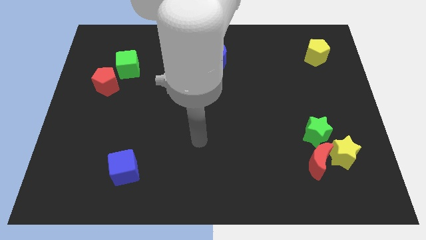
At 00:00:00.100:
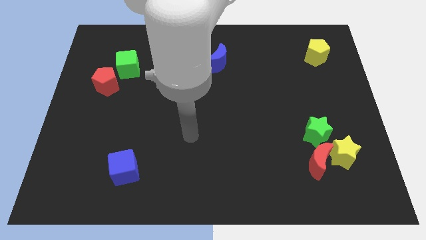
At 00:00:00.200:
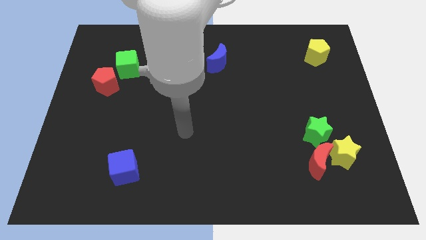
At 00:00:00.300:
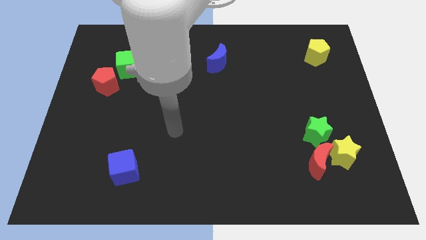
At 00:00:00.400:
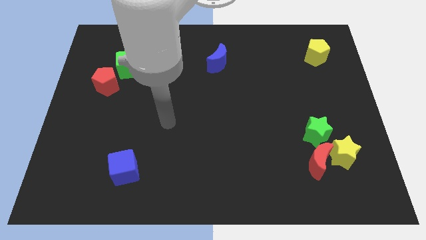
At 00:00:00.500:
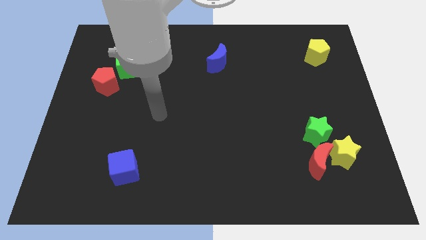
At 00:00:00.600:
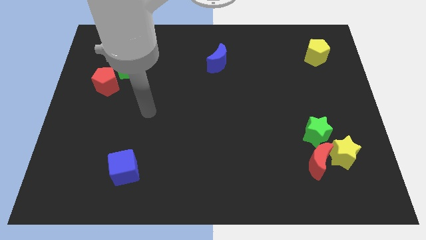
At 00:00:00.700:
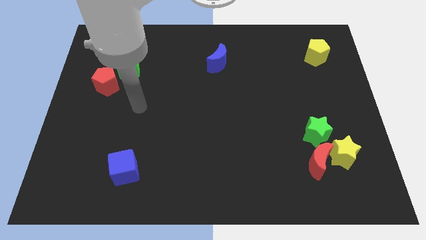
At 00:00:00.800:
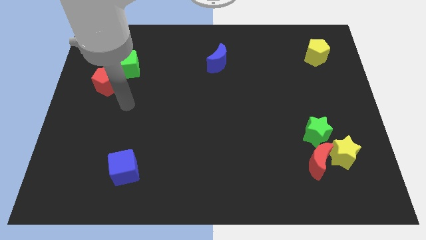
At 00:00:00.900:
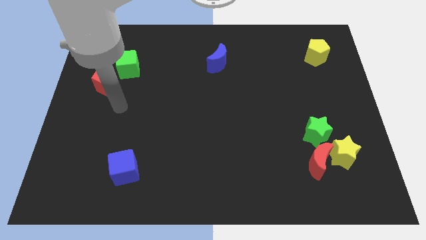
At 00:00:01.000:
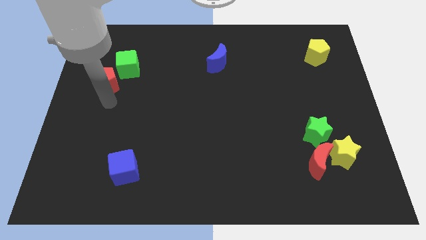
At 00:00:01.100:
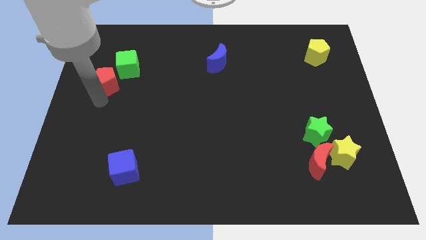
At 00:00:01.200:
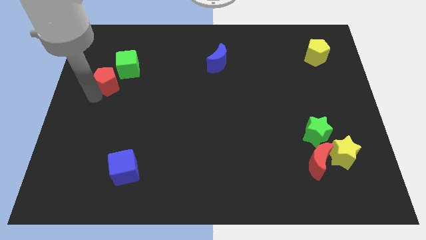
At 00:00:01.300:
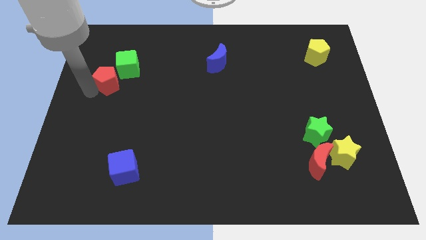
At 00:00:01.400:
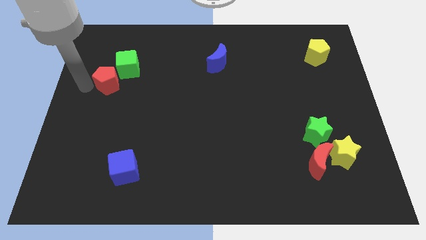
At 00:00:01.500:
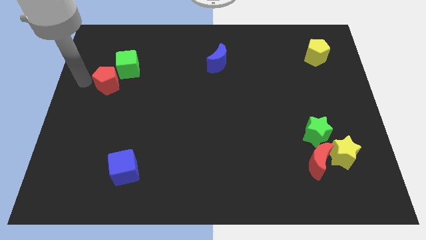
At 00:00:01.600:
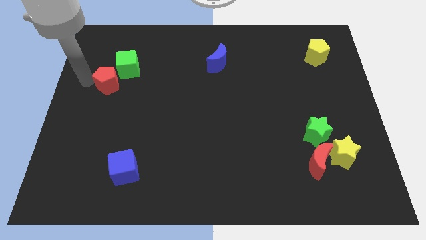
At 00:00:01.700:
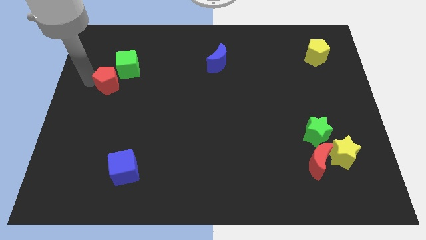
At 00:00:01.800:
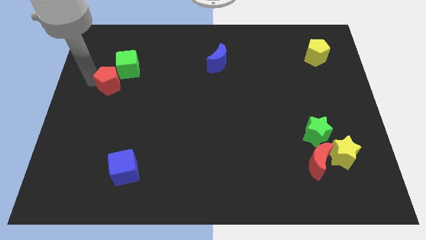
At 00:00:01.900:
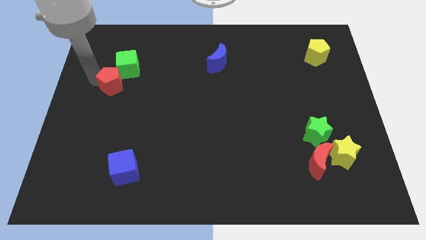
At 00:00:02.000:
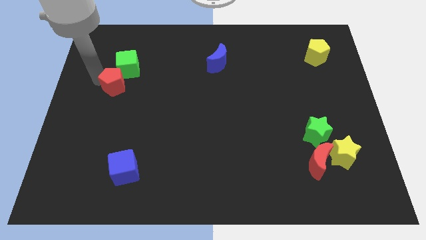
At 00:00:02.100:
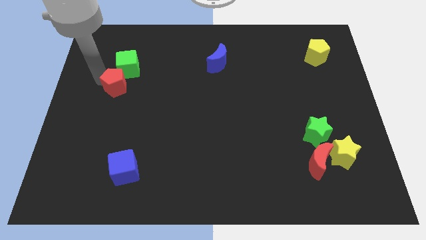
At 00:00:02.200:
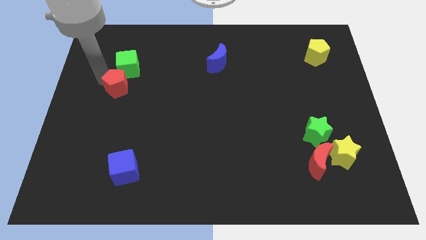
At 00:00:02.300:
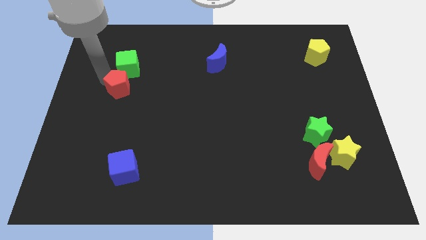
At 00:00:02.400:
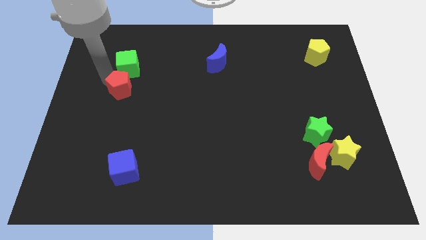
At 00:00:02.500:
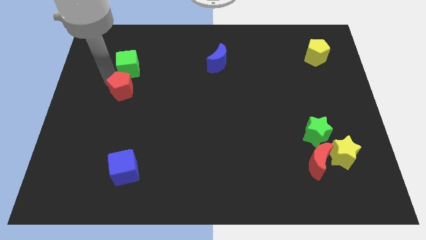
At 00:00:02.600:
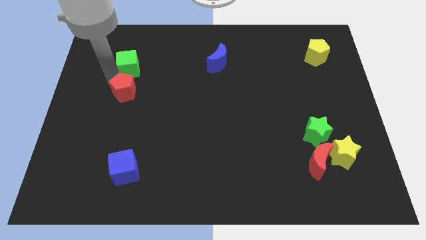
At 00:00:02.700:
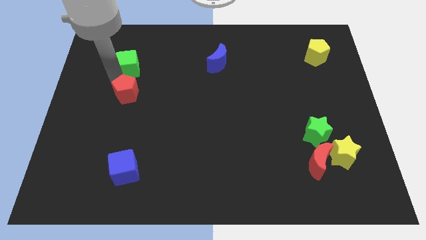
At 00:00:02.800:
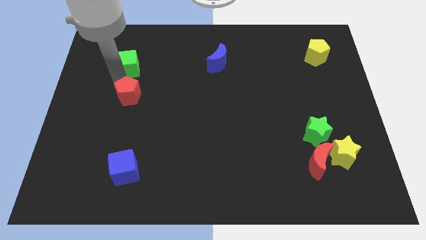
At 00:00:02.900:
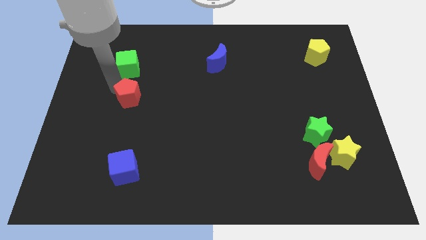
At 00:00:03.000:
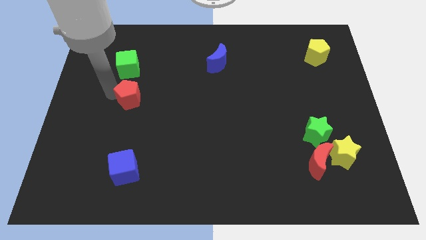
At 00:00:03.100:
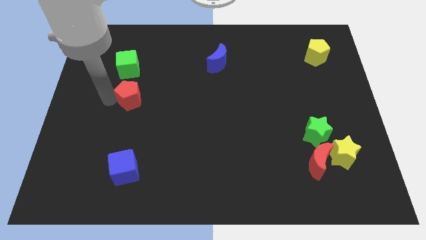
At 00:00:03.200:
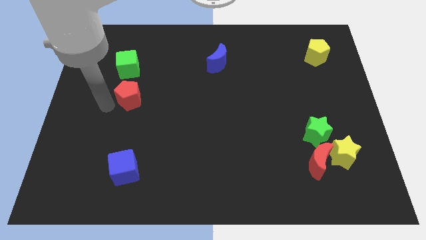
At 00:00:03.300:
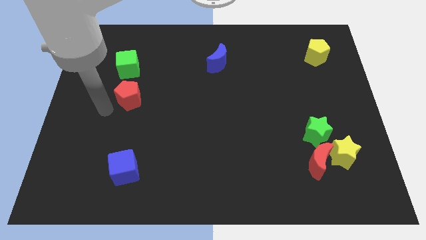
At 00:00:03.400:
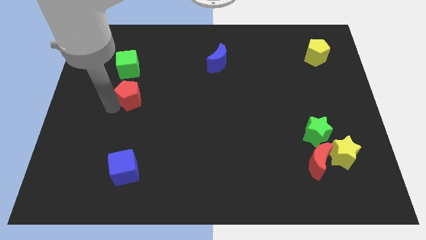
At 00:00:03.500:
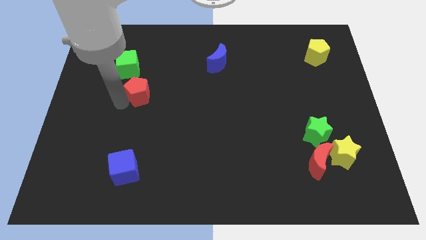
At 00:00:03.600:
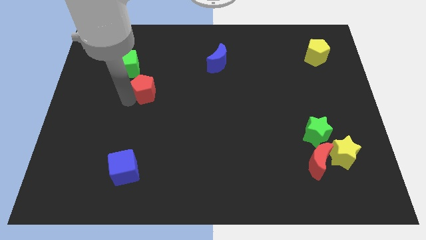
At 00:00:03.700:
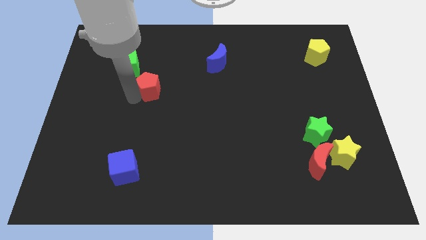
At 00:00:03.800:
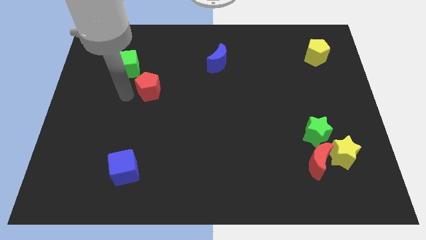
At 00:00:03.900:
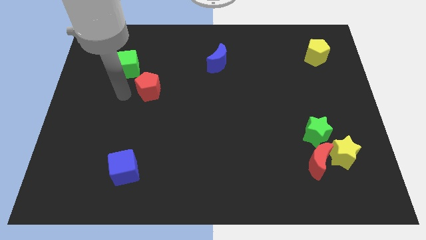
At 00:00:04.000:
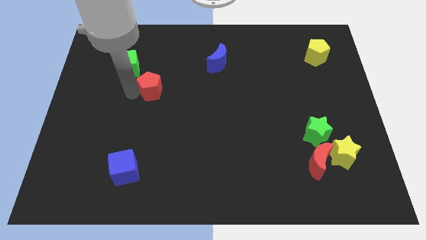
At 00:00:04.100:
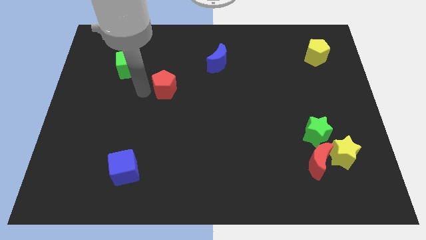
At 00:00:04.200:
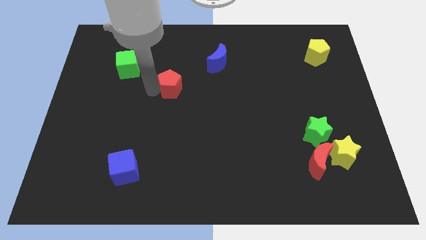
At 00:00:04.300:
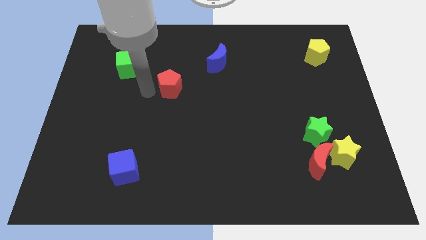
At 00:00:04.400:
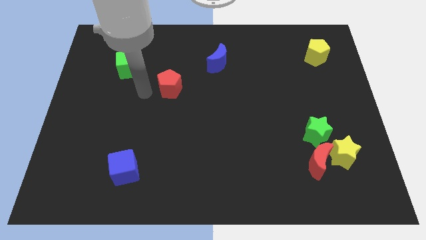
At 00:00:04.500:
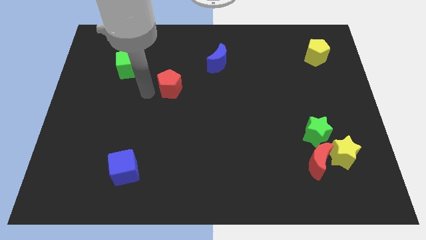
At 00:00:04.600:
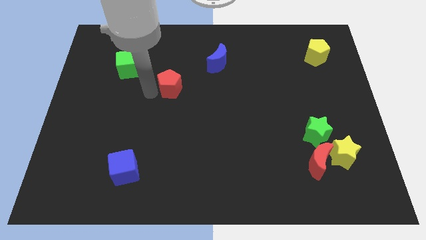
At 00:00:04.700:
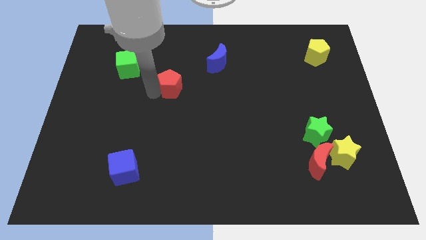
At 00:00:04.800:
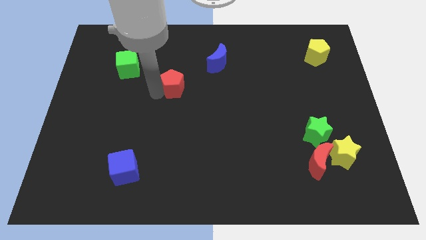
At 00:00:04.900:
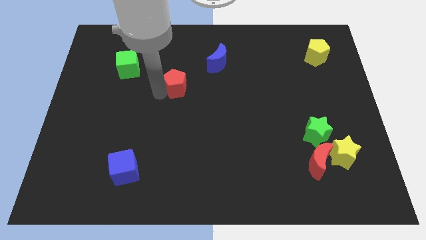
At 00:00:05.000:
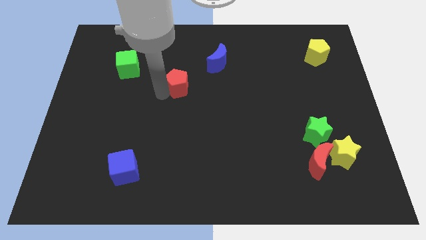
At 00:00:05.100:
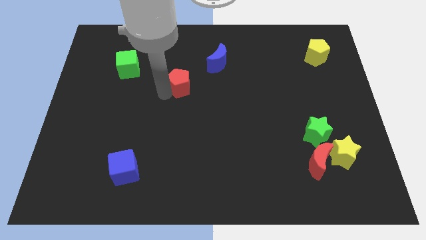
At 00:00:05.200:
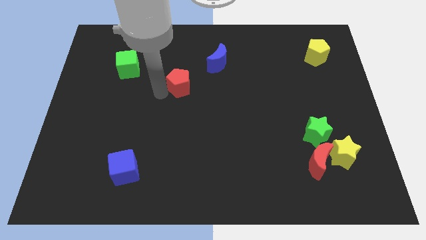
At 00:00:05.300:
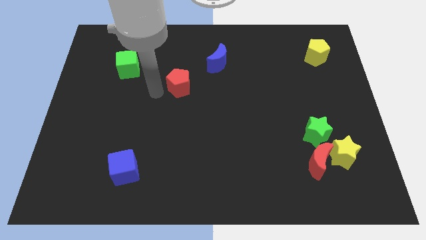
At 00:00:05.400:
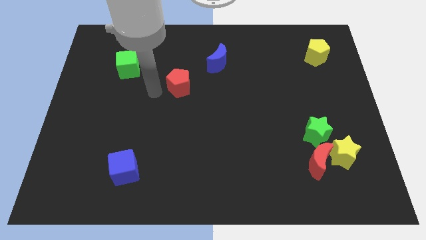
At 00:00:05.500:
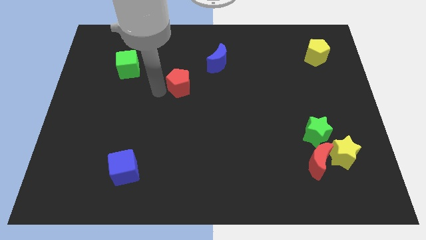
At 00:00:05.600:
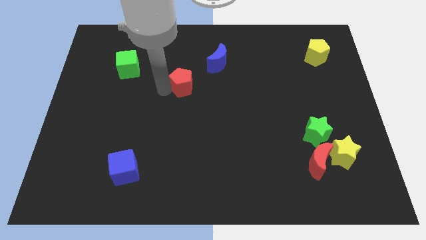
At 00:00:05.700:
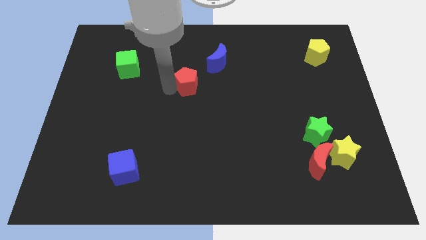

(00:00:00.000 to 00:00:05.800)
move the red pentagon to the right

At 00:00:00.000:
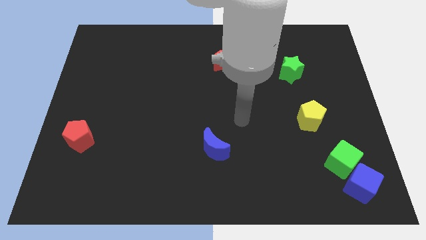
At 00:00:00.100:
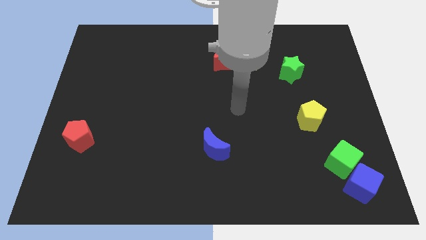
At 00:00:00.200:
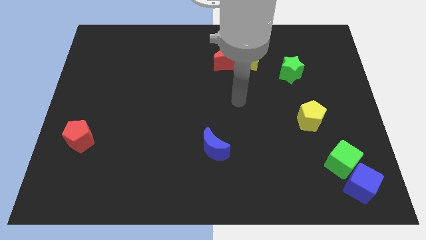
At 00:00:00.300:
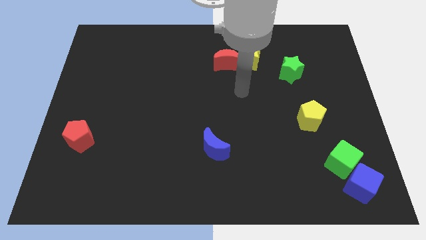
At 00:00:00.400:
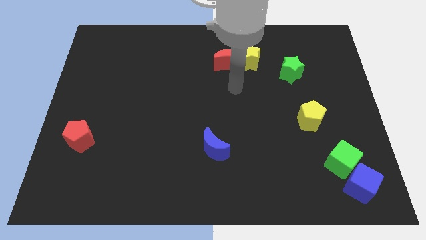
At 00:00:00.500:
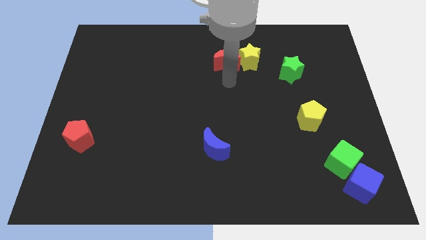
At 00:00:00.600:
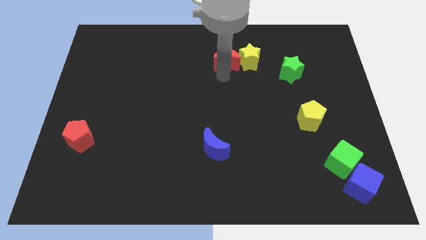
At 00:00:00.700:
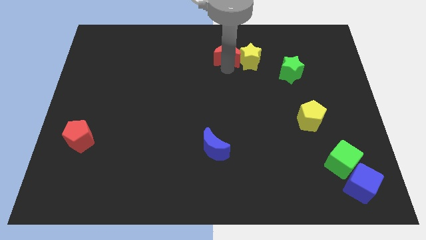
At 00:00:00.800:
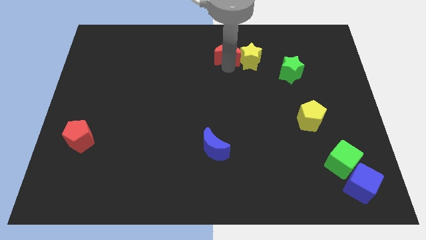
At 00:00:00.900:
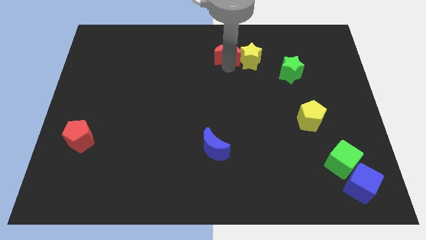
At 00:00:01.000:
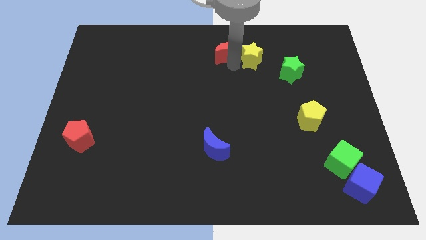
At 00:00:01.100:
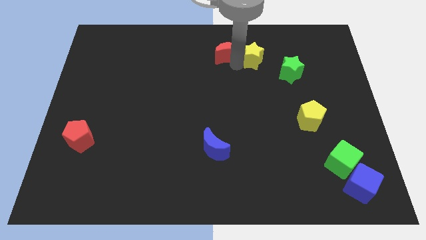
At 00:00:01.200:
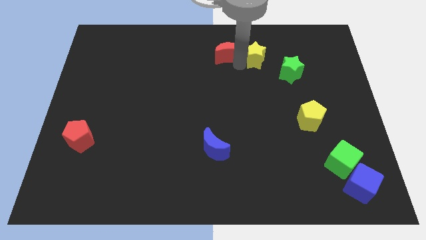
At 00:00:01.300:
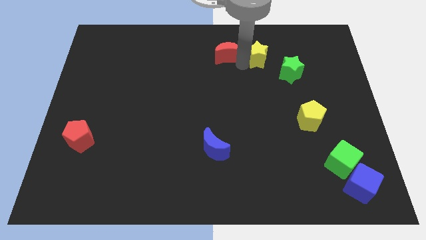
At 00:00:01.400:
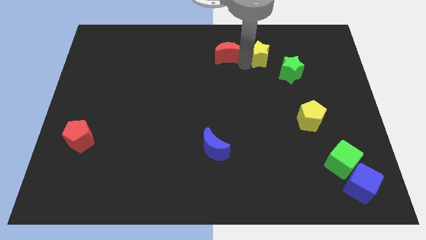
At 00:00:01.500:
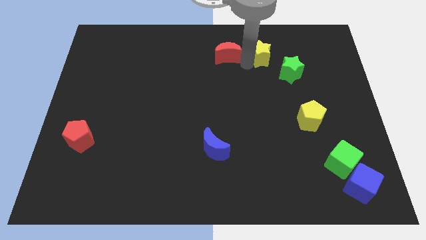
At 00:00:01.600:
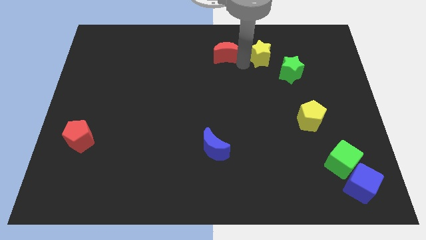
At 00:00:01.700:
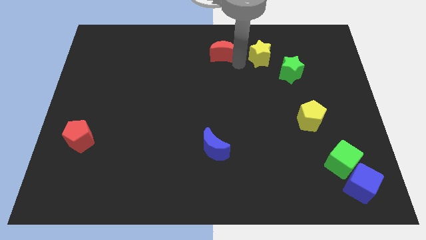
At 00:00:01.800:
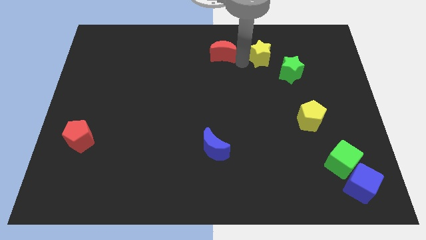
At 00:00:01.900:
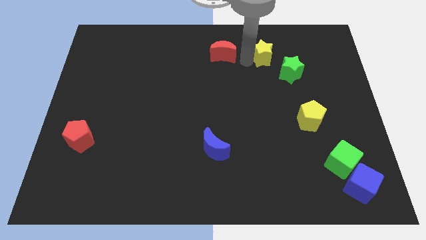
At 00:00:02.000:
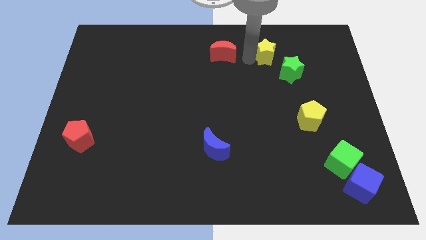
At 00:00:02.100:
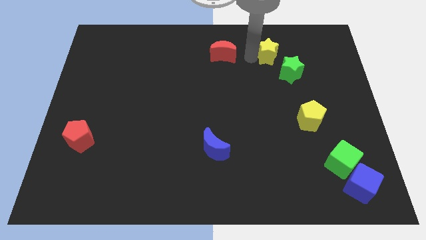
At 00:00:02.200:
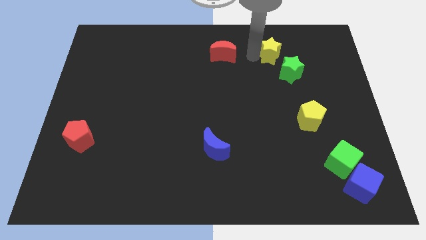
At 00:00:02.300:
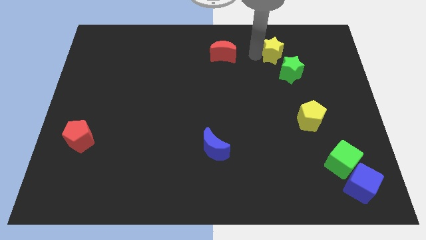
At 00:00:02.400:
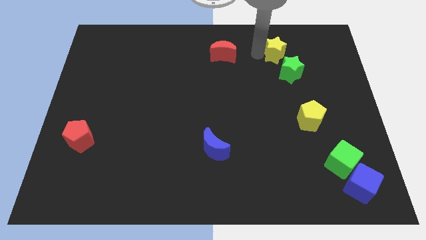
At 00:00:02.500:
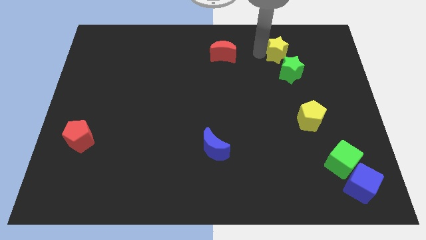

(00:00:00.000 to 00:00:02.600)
slide the yellow star slightly to the right
